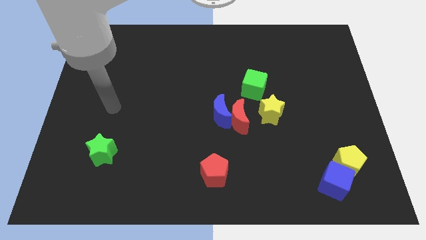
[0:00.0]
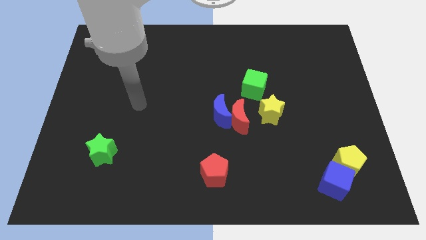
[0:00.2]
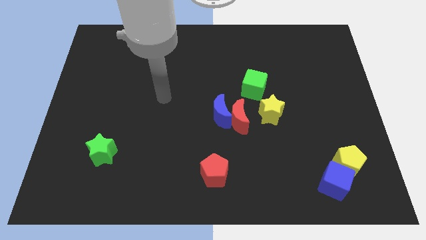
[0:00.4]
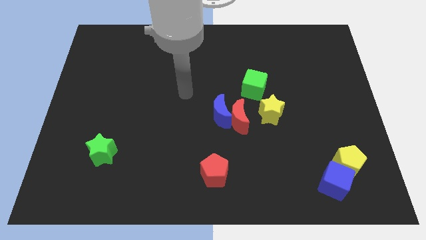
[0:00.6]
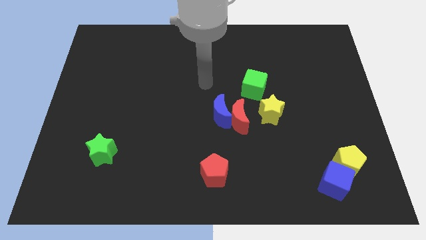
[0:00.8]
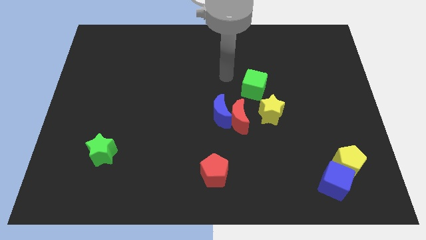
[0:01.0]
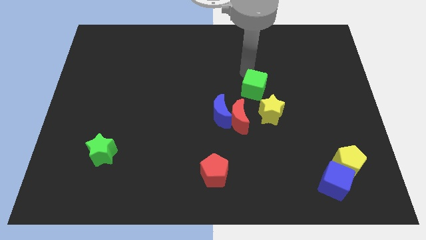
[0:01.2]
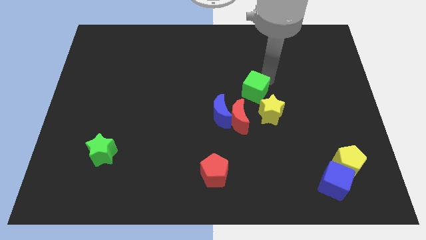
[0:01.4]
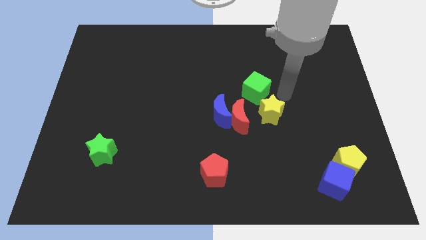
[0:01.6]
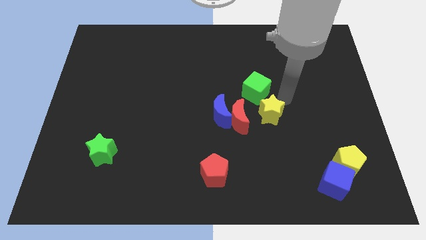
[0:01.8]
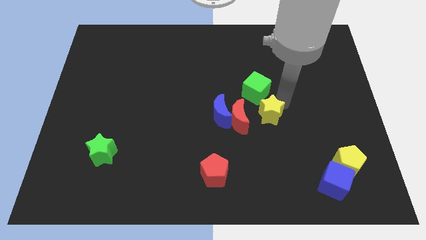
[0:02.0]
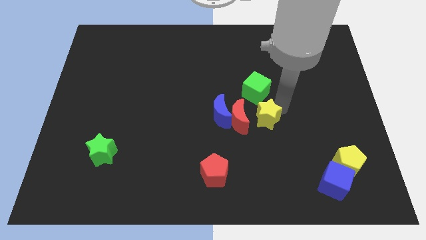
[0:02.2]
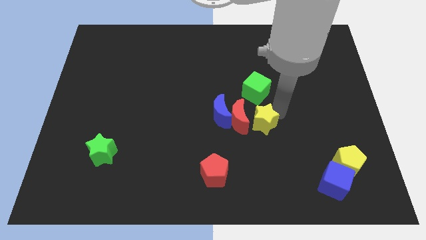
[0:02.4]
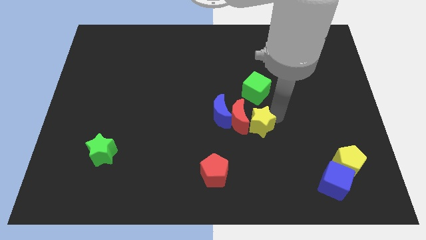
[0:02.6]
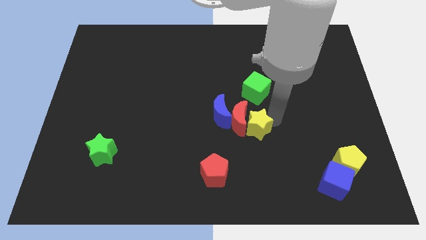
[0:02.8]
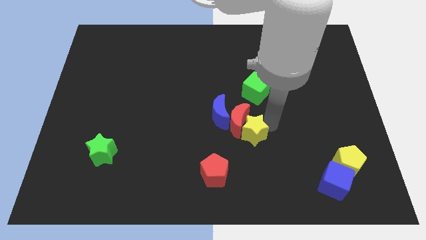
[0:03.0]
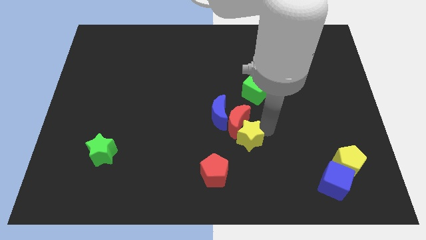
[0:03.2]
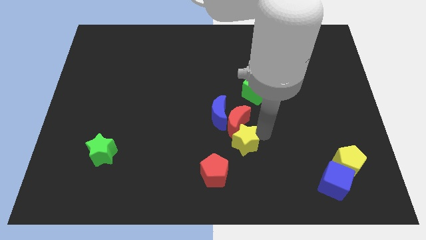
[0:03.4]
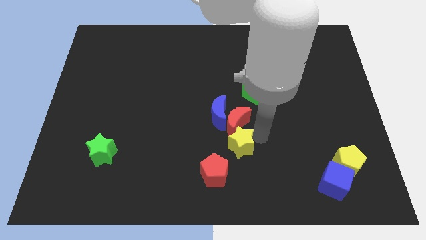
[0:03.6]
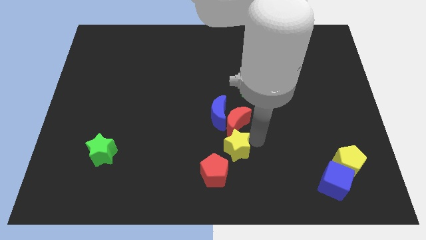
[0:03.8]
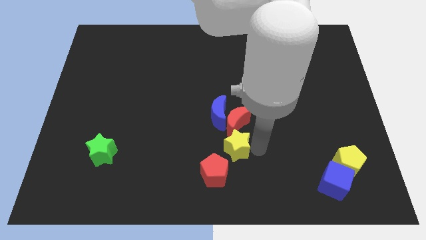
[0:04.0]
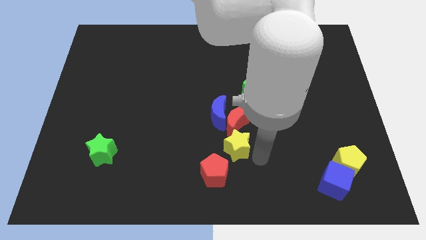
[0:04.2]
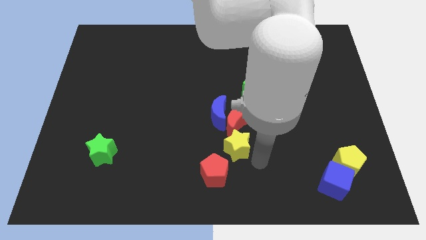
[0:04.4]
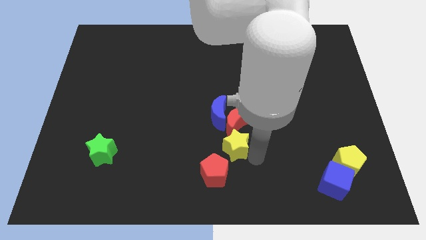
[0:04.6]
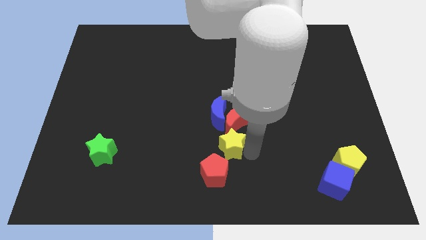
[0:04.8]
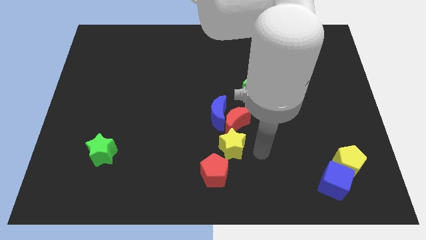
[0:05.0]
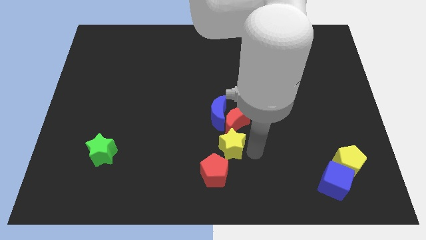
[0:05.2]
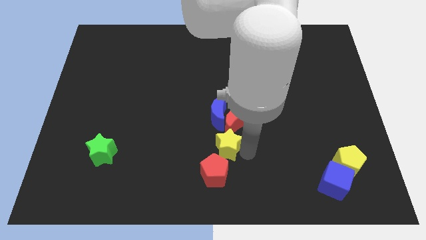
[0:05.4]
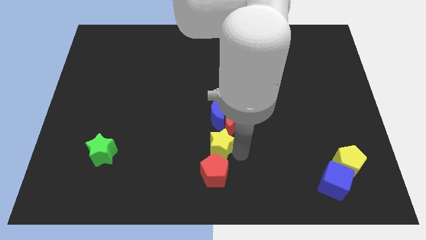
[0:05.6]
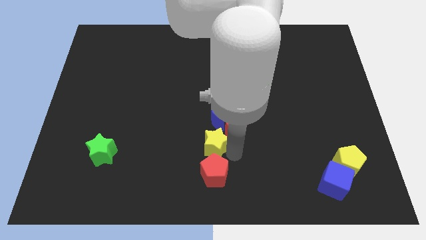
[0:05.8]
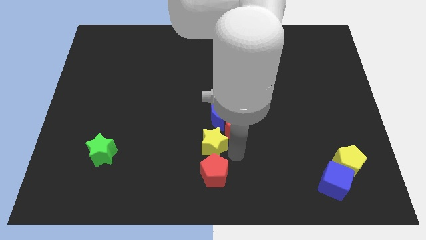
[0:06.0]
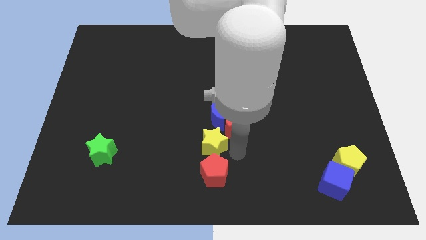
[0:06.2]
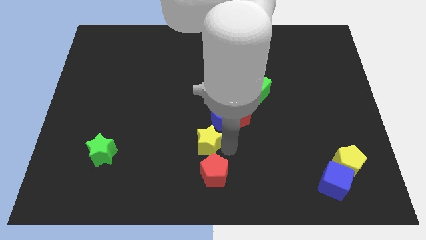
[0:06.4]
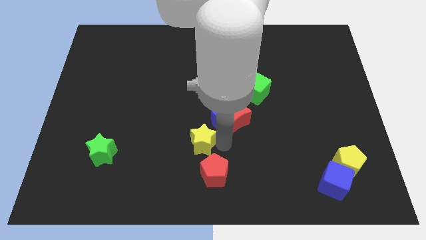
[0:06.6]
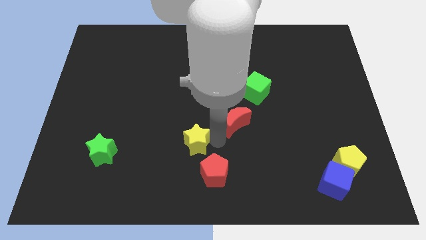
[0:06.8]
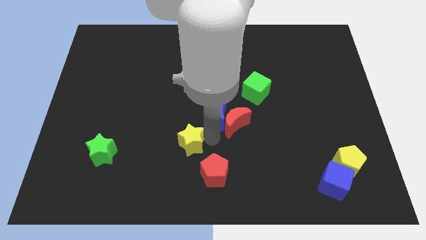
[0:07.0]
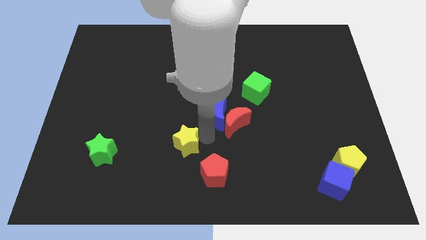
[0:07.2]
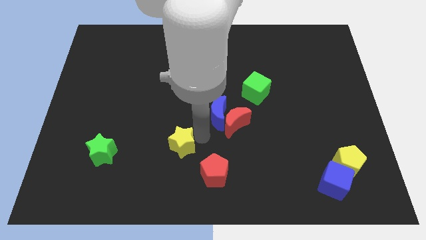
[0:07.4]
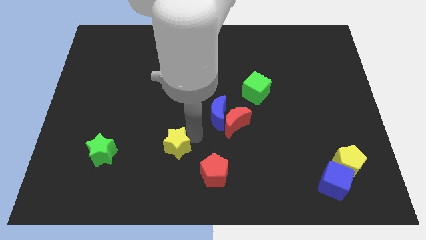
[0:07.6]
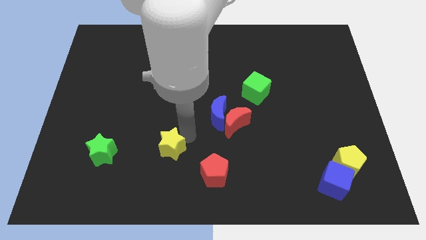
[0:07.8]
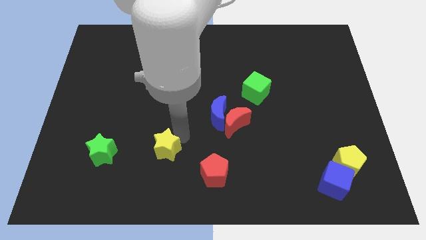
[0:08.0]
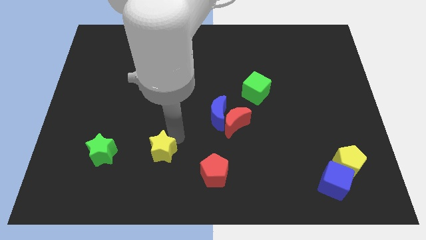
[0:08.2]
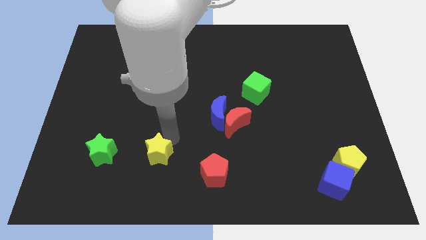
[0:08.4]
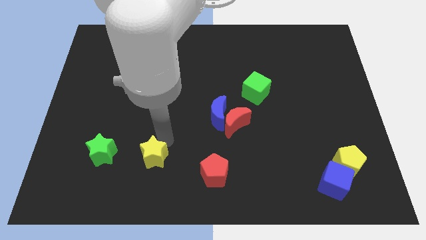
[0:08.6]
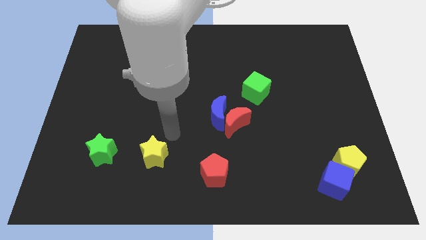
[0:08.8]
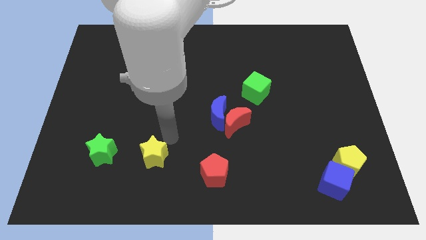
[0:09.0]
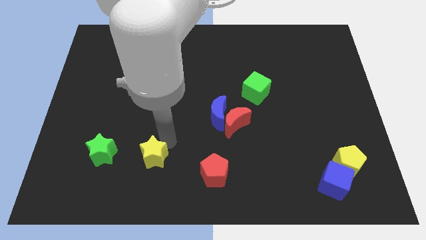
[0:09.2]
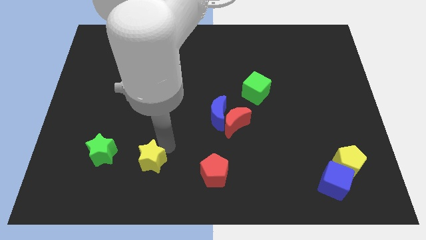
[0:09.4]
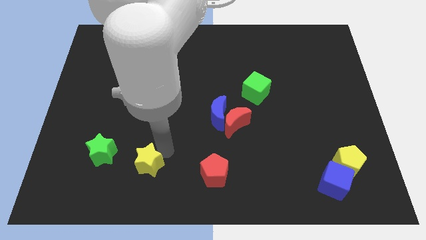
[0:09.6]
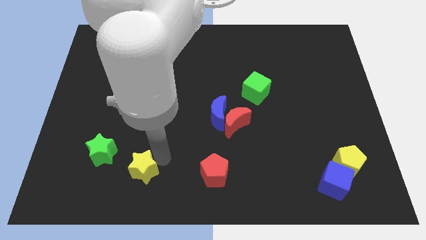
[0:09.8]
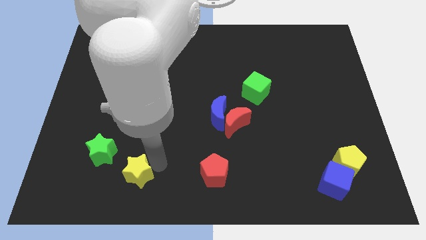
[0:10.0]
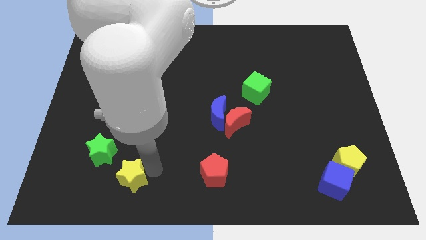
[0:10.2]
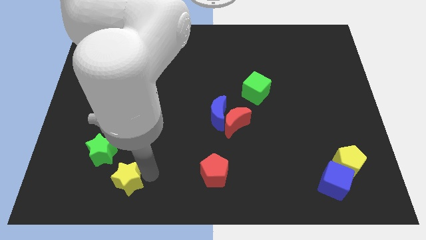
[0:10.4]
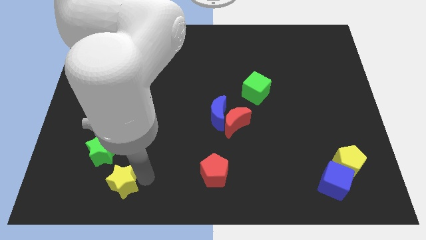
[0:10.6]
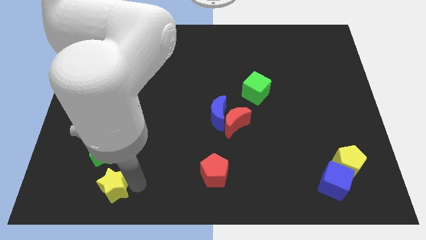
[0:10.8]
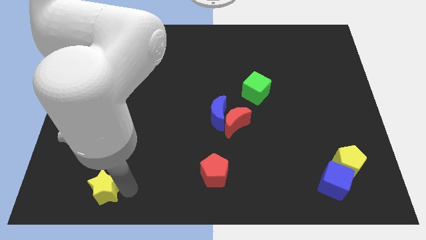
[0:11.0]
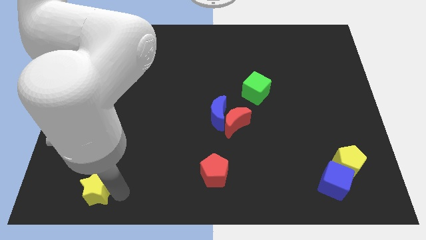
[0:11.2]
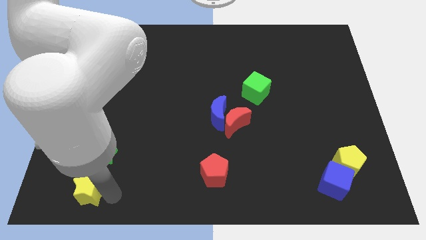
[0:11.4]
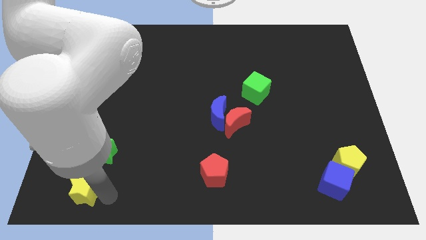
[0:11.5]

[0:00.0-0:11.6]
push the yellow star to the bottom left of the green star

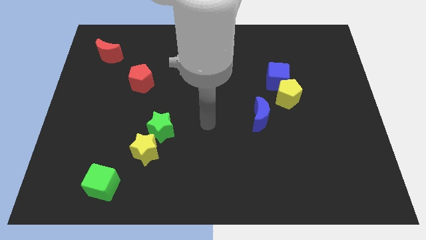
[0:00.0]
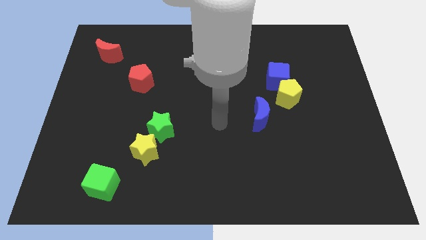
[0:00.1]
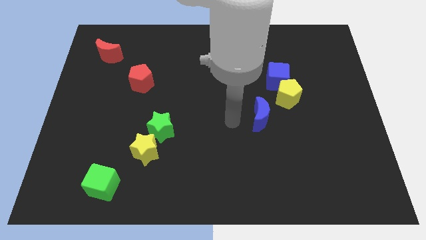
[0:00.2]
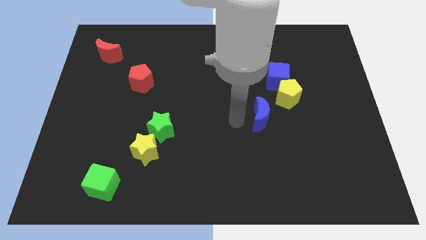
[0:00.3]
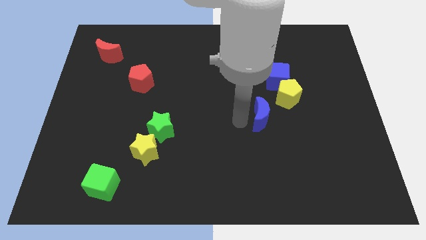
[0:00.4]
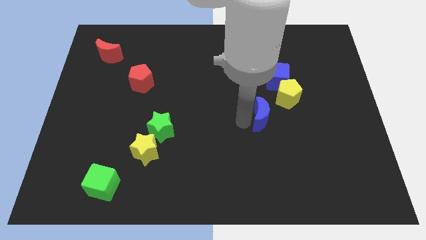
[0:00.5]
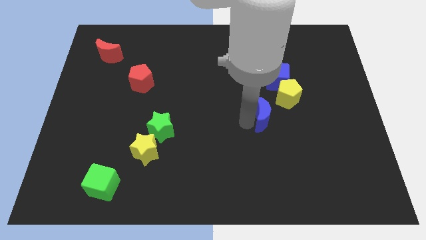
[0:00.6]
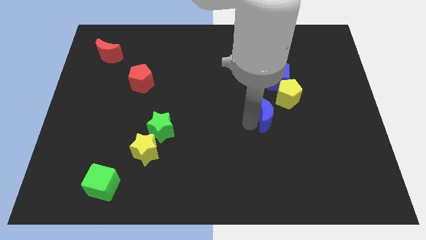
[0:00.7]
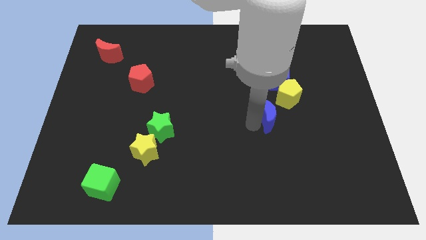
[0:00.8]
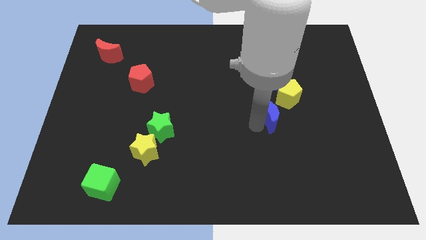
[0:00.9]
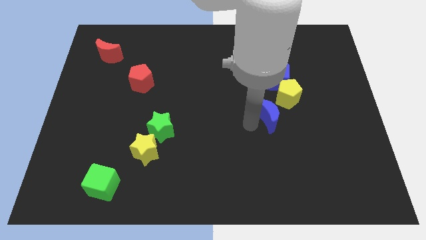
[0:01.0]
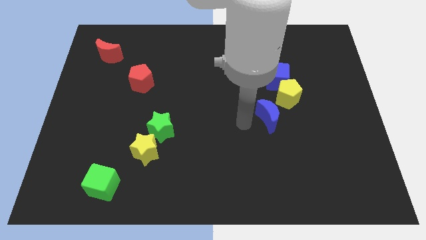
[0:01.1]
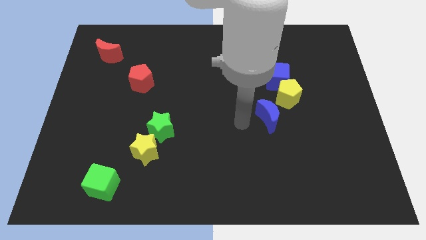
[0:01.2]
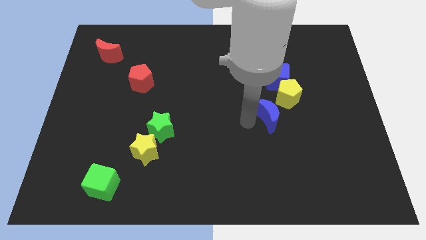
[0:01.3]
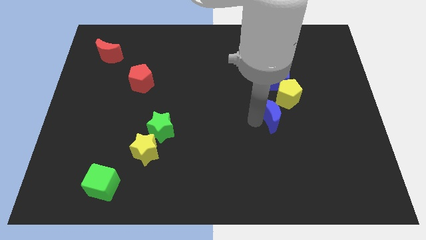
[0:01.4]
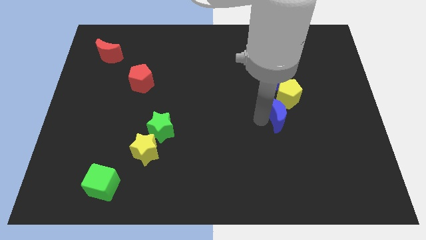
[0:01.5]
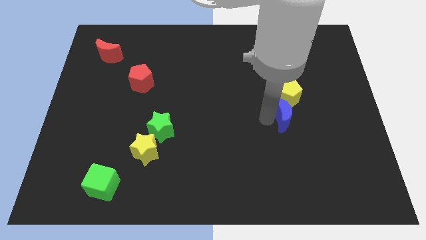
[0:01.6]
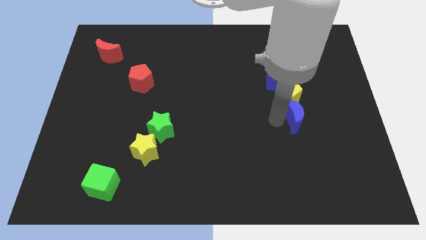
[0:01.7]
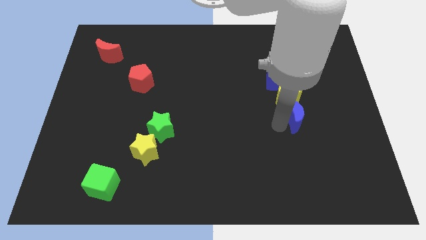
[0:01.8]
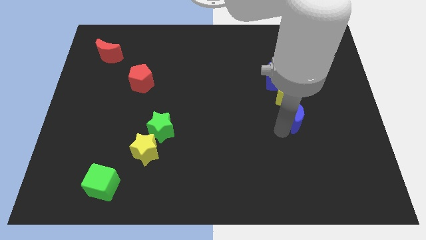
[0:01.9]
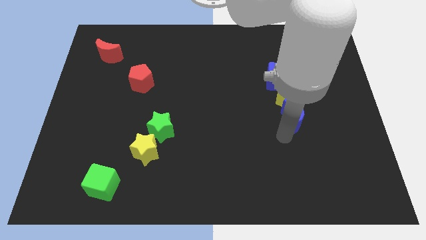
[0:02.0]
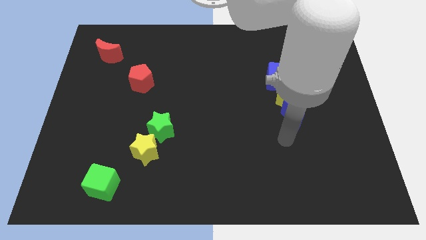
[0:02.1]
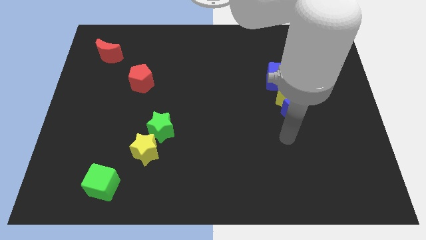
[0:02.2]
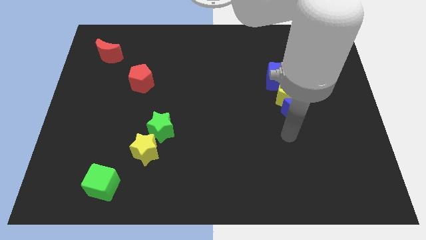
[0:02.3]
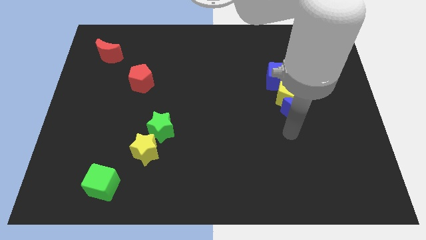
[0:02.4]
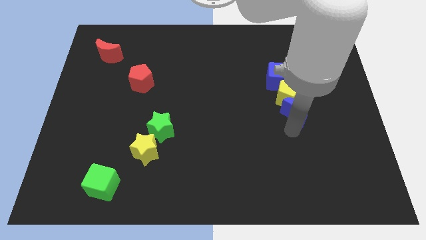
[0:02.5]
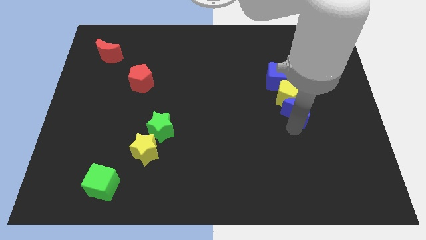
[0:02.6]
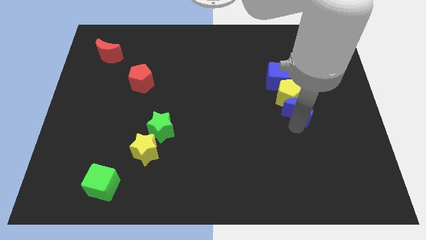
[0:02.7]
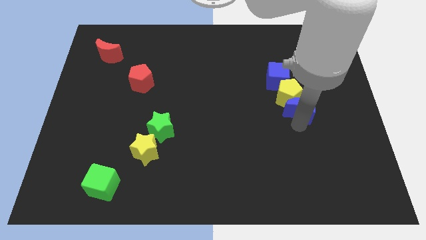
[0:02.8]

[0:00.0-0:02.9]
slide the blue moon to the bottom right of the blue cube
